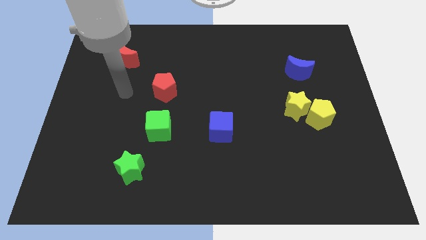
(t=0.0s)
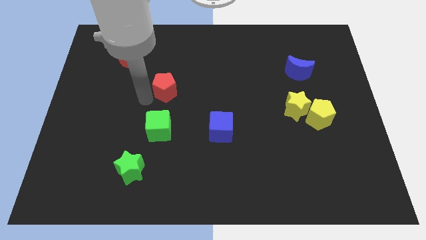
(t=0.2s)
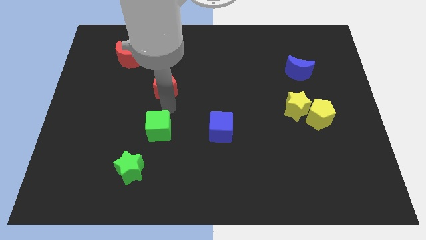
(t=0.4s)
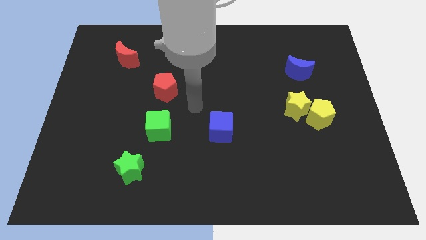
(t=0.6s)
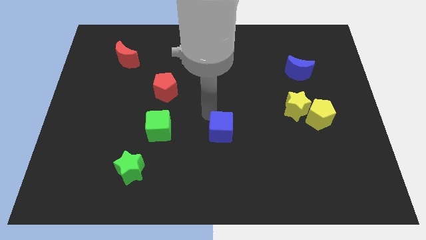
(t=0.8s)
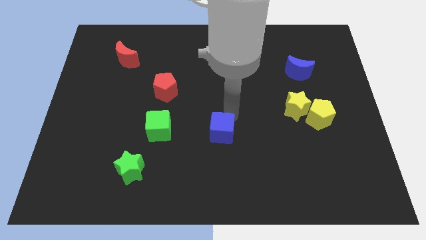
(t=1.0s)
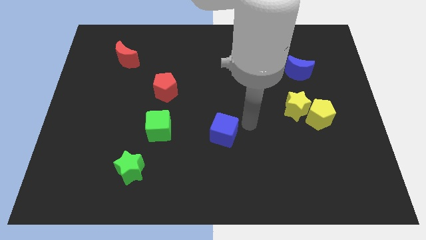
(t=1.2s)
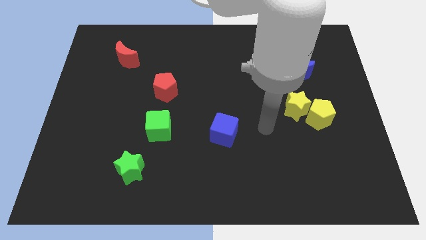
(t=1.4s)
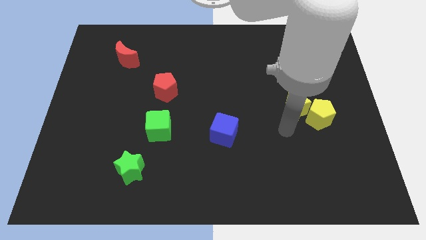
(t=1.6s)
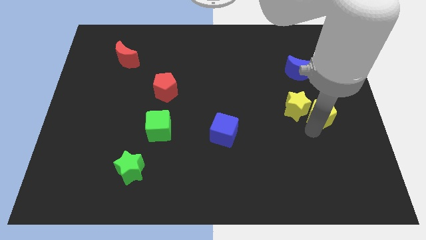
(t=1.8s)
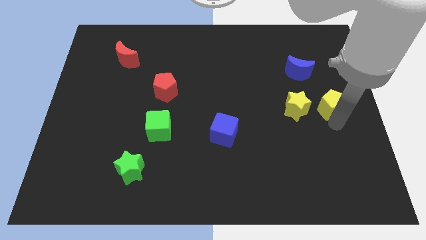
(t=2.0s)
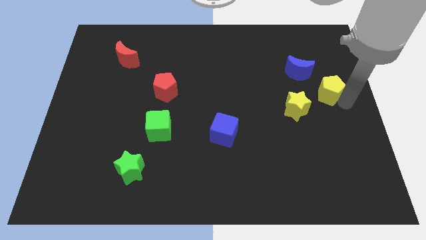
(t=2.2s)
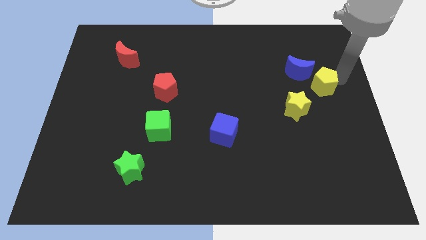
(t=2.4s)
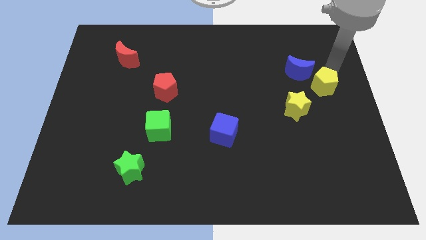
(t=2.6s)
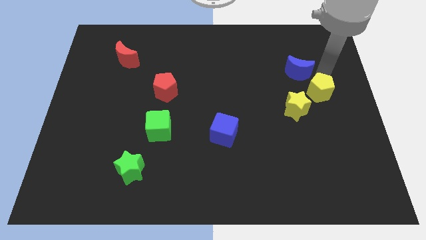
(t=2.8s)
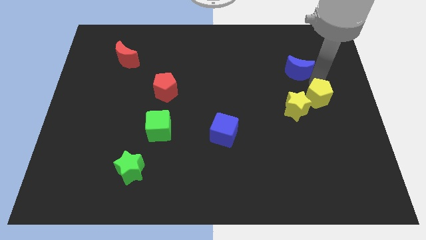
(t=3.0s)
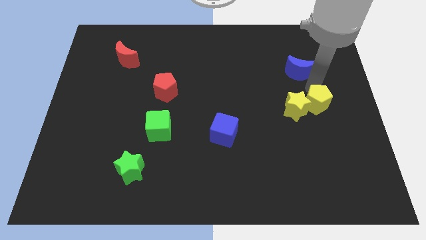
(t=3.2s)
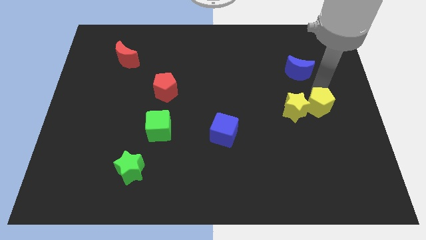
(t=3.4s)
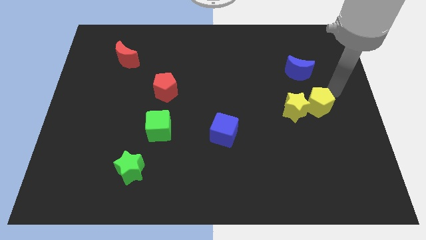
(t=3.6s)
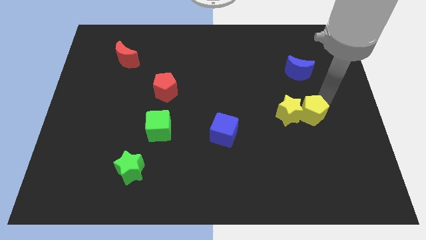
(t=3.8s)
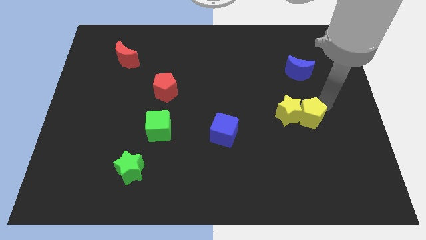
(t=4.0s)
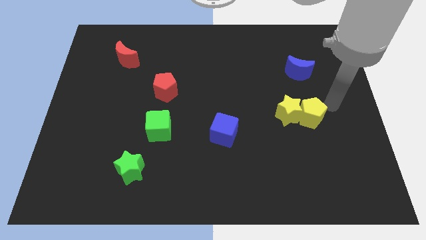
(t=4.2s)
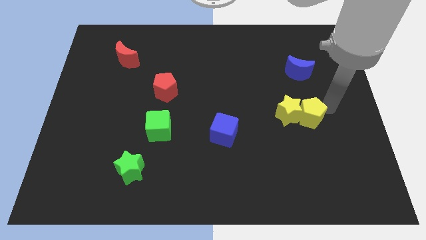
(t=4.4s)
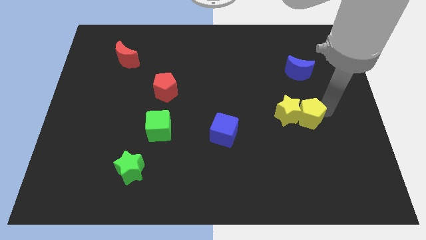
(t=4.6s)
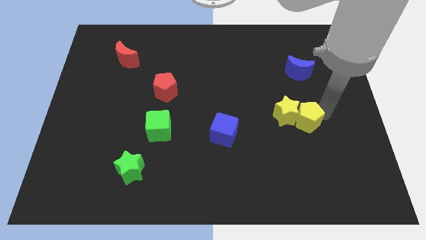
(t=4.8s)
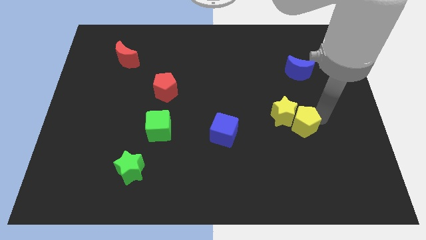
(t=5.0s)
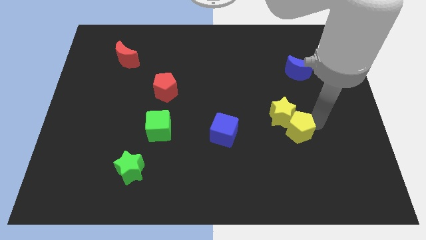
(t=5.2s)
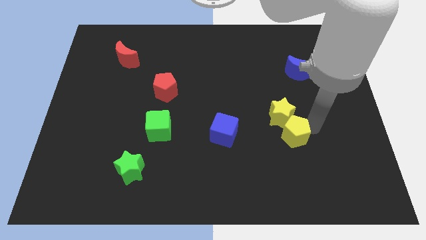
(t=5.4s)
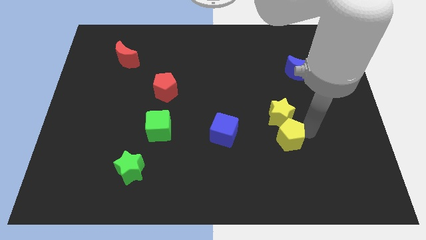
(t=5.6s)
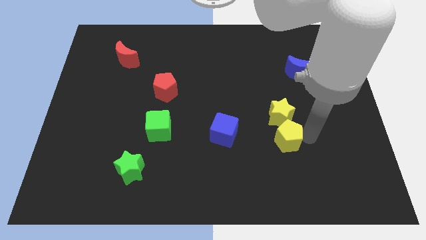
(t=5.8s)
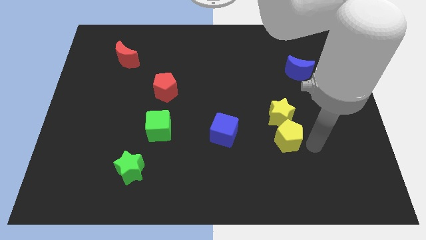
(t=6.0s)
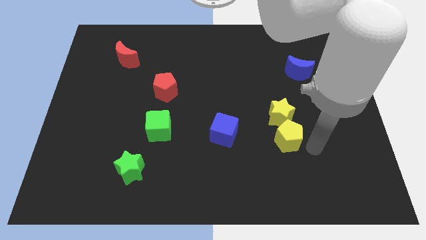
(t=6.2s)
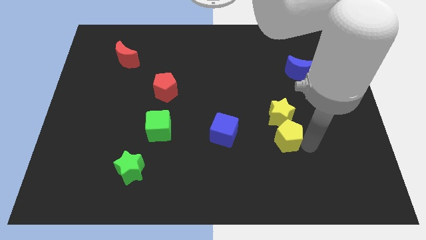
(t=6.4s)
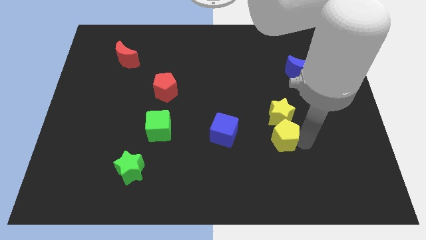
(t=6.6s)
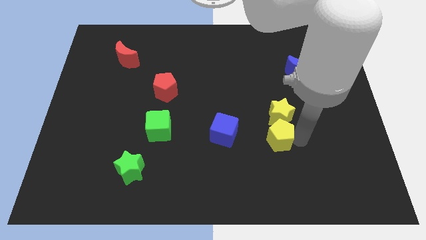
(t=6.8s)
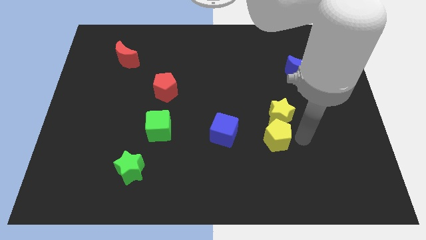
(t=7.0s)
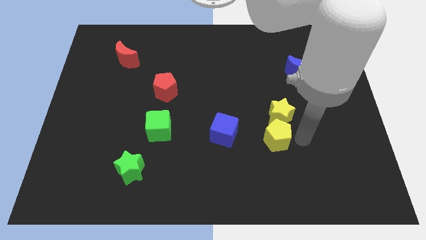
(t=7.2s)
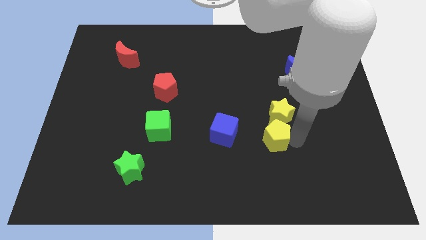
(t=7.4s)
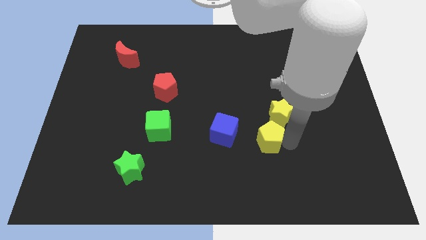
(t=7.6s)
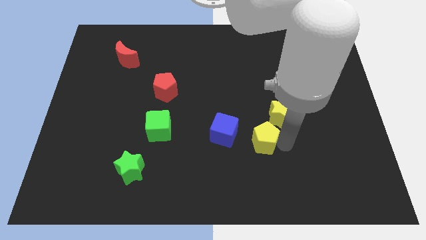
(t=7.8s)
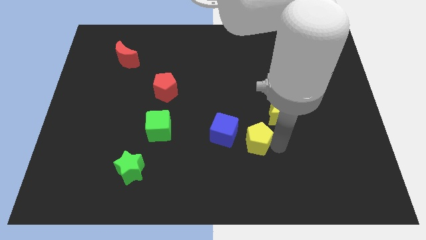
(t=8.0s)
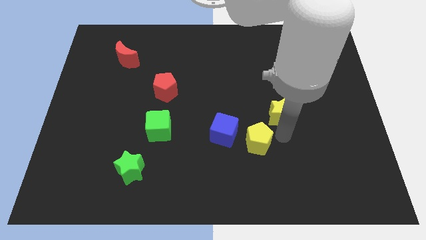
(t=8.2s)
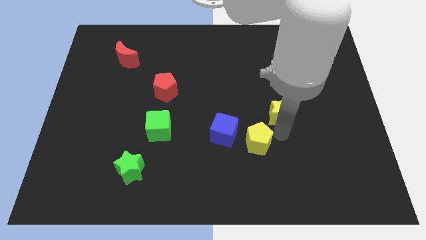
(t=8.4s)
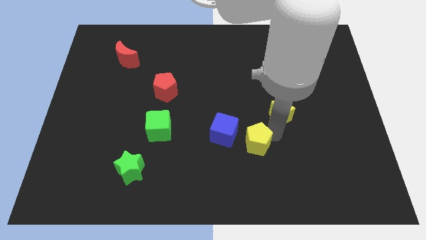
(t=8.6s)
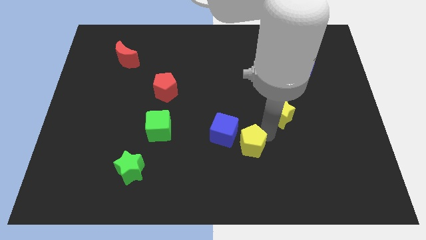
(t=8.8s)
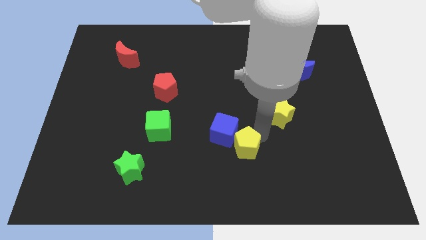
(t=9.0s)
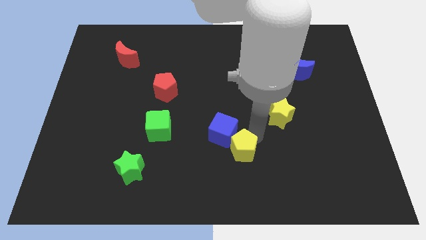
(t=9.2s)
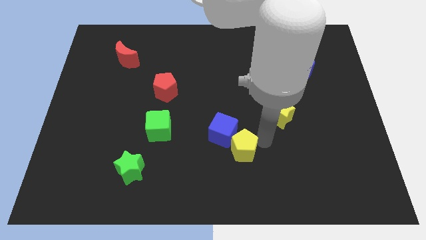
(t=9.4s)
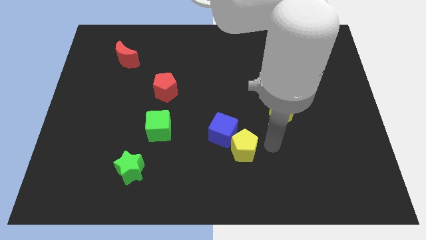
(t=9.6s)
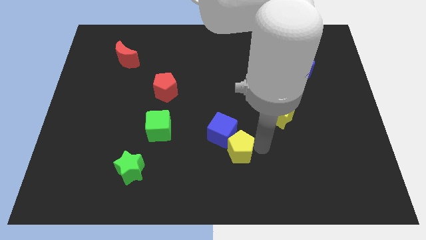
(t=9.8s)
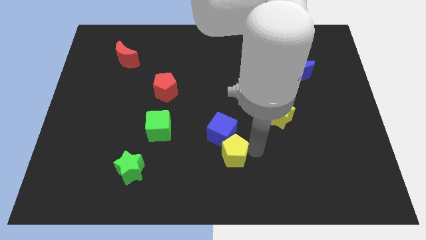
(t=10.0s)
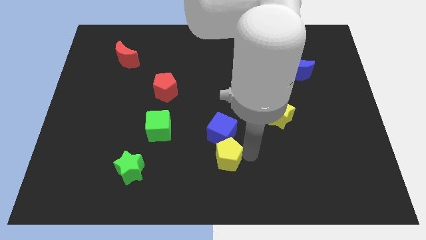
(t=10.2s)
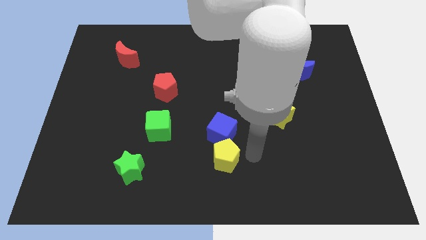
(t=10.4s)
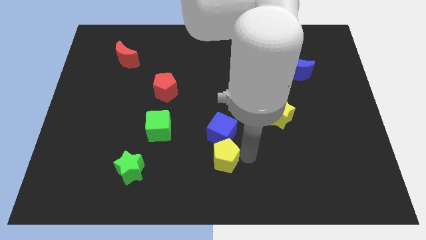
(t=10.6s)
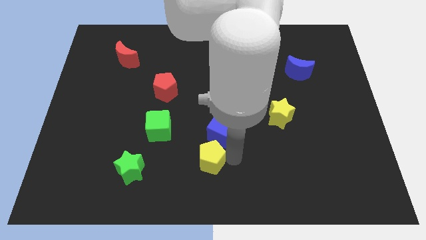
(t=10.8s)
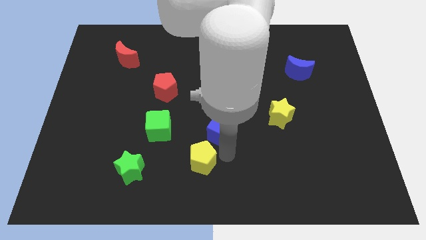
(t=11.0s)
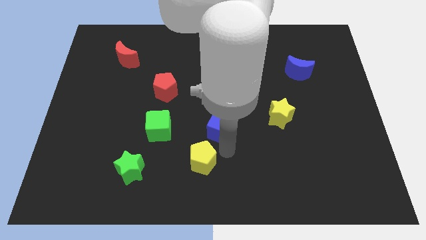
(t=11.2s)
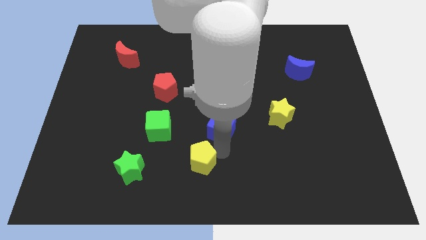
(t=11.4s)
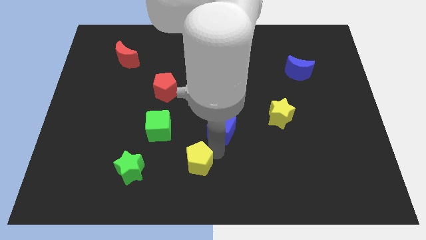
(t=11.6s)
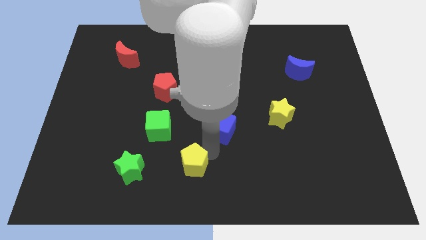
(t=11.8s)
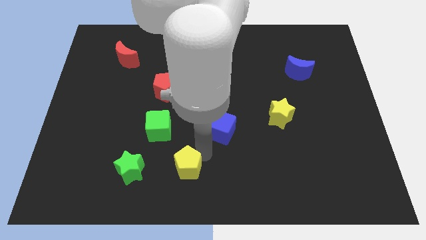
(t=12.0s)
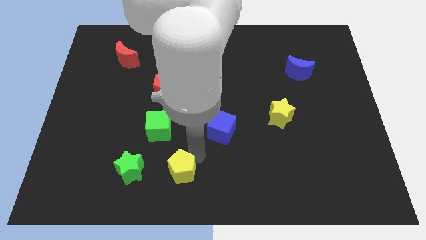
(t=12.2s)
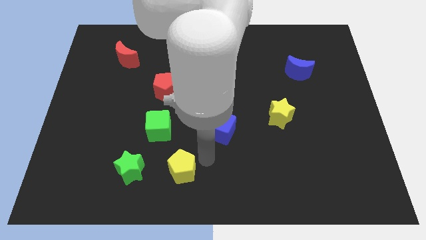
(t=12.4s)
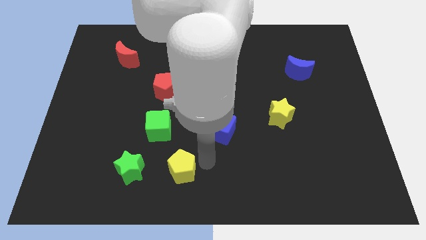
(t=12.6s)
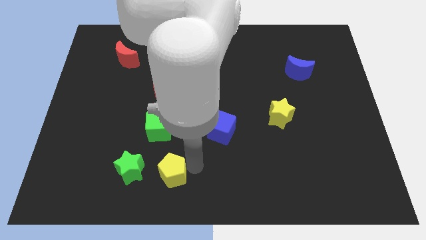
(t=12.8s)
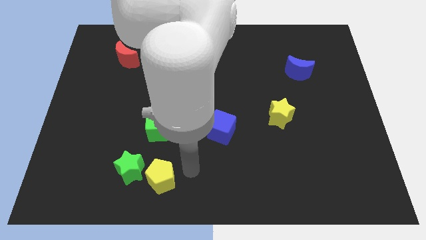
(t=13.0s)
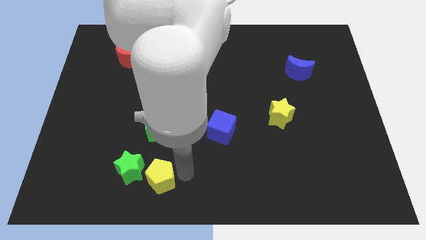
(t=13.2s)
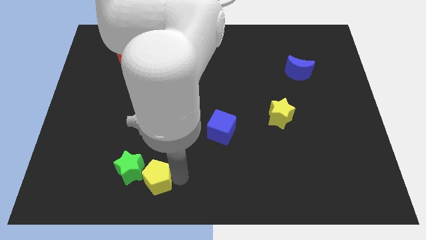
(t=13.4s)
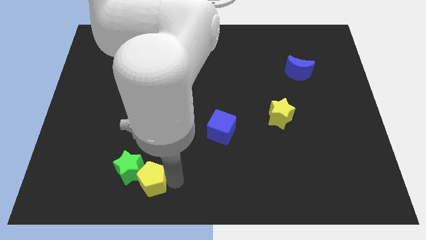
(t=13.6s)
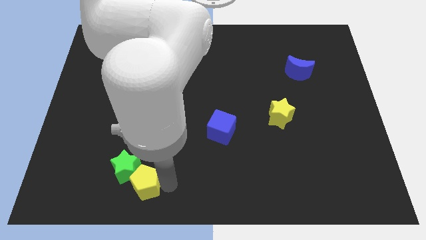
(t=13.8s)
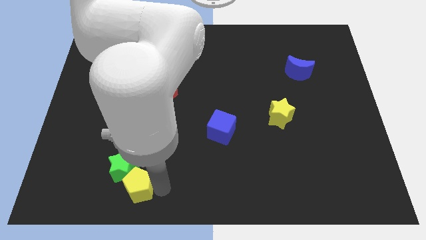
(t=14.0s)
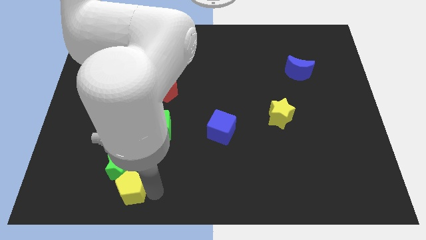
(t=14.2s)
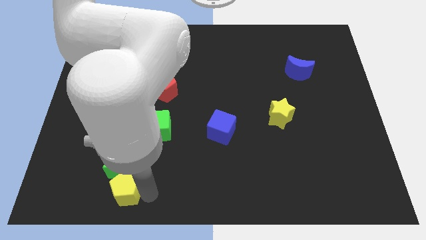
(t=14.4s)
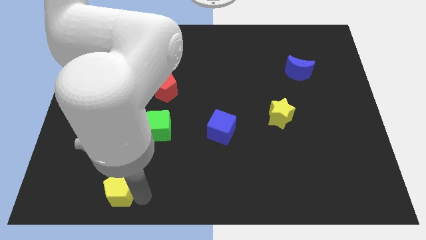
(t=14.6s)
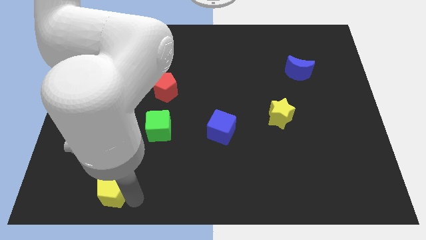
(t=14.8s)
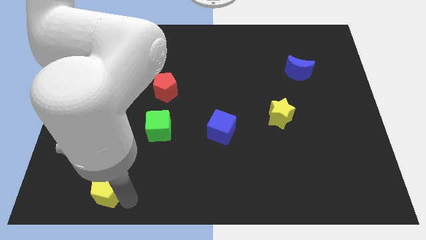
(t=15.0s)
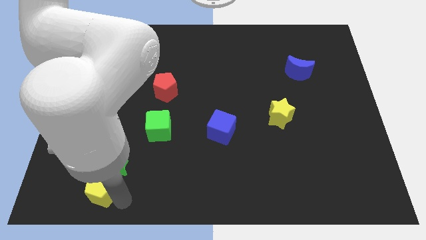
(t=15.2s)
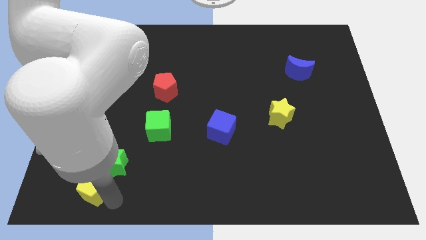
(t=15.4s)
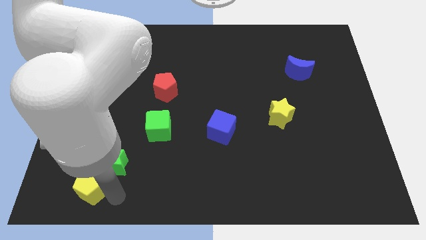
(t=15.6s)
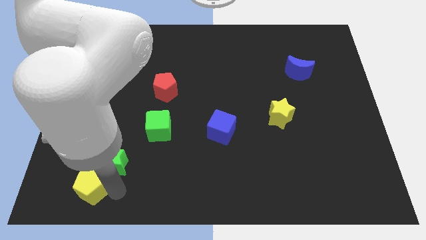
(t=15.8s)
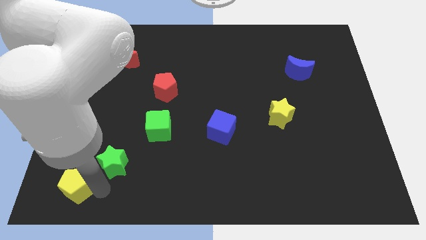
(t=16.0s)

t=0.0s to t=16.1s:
slide the yellow pentagon to the lower left corner
